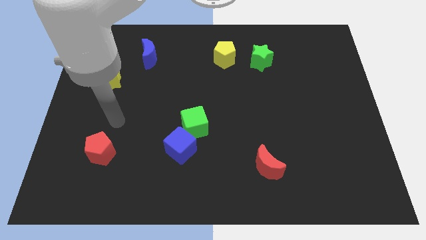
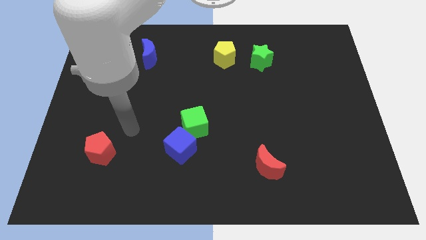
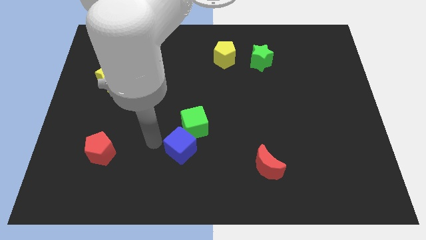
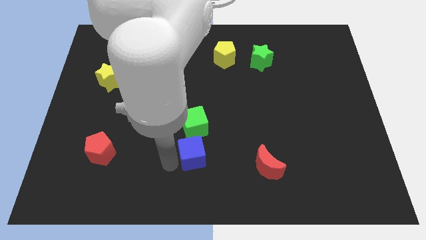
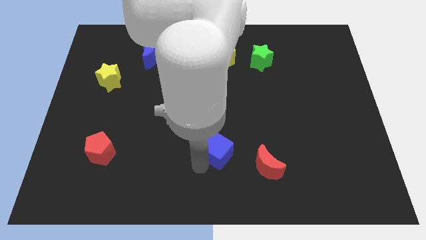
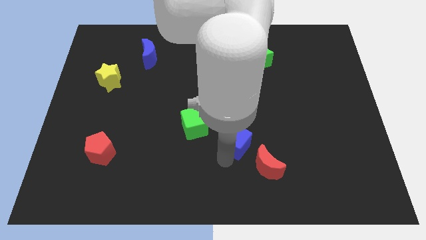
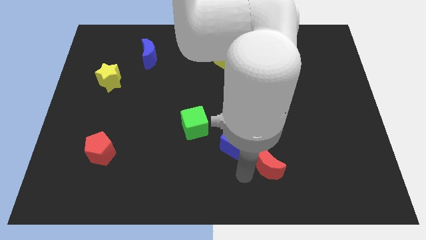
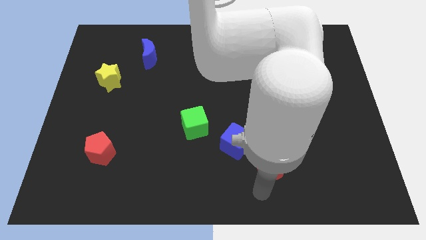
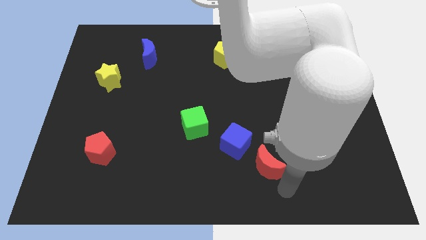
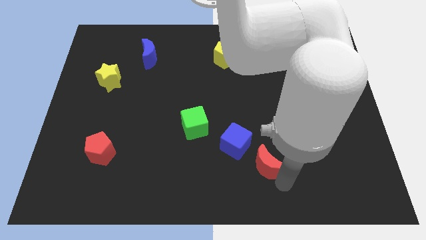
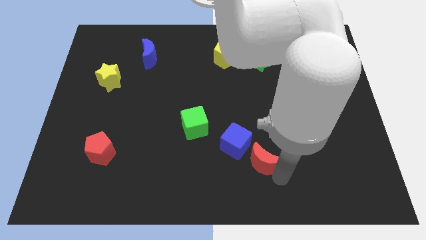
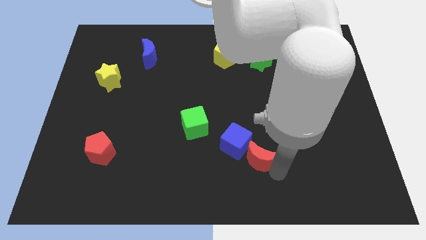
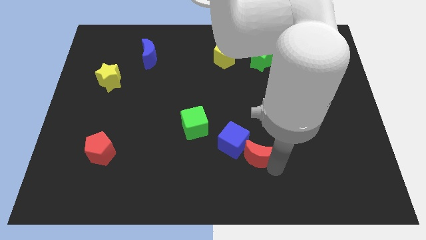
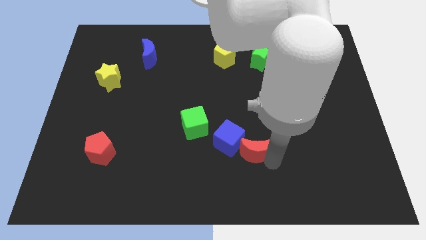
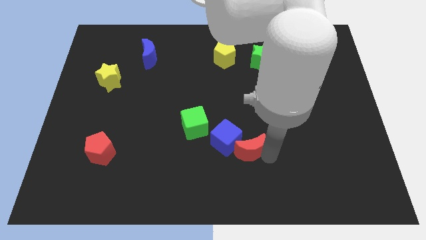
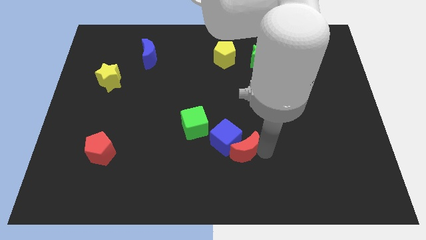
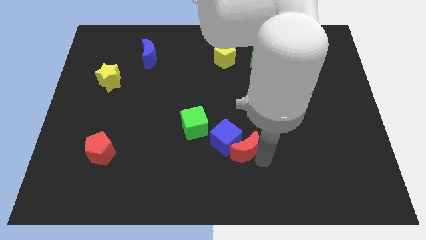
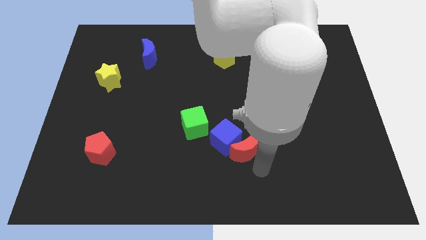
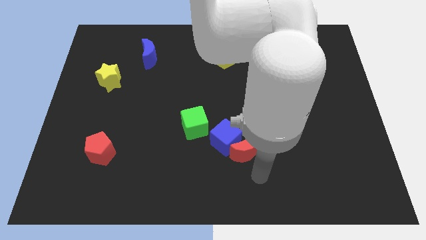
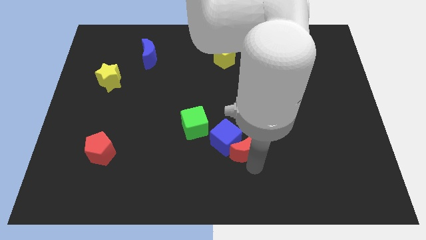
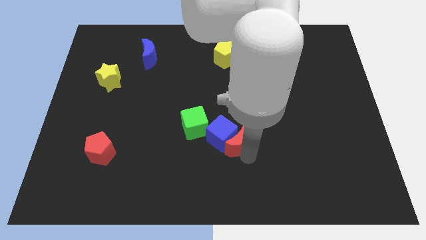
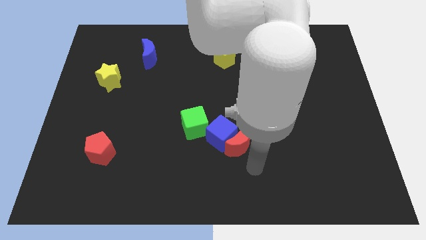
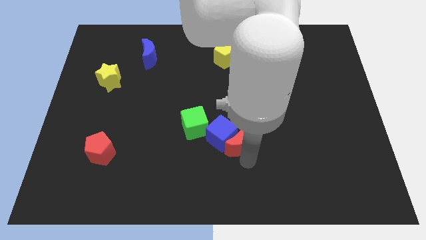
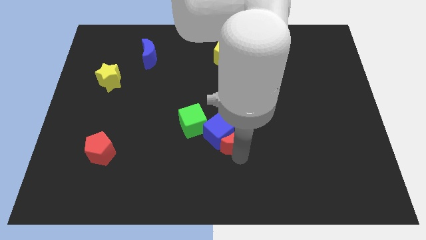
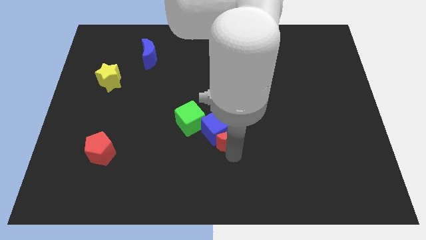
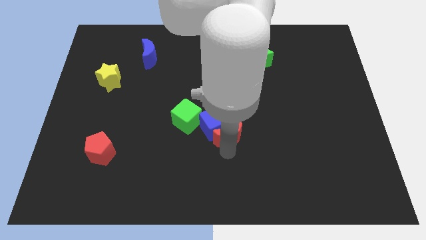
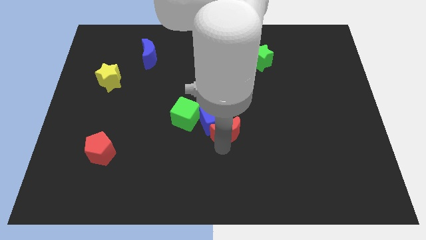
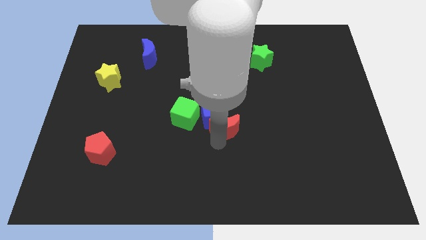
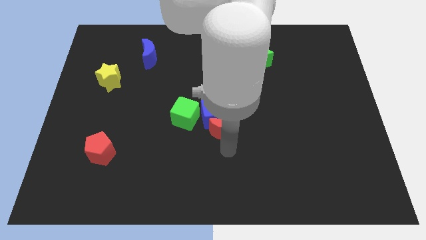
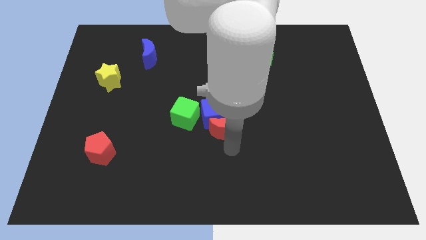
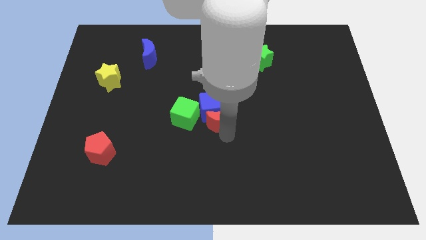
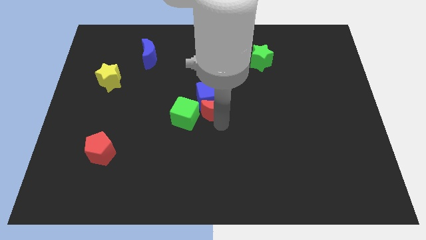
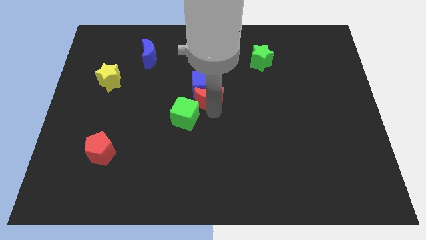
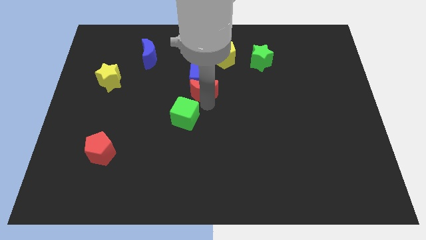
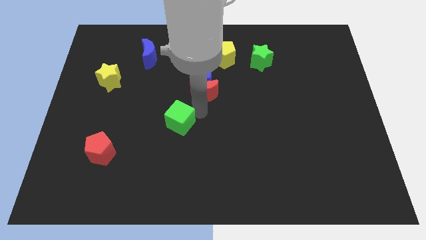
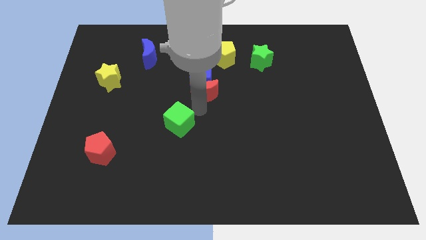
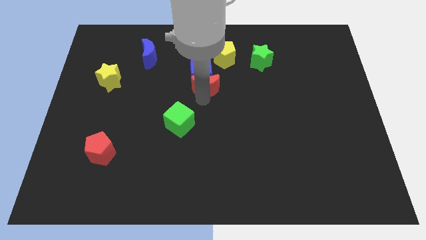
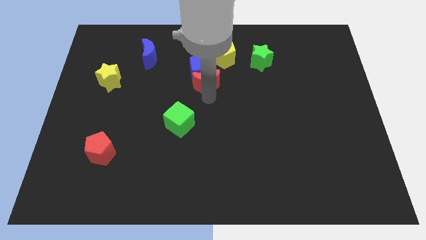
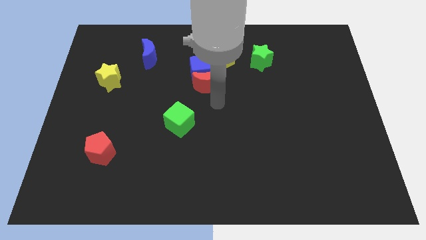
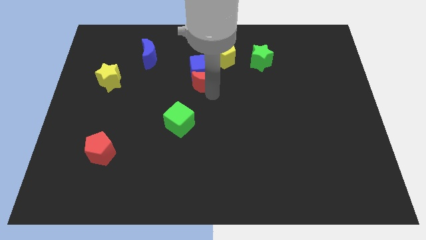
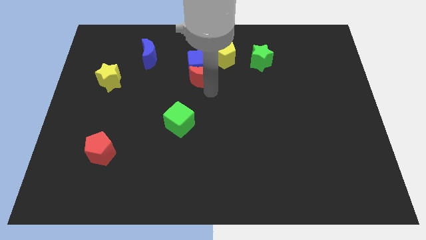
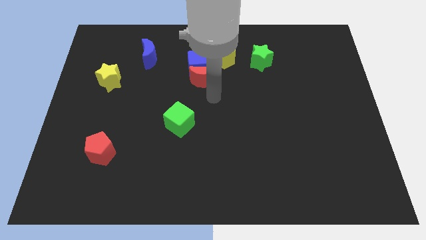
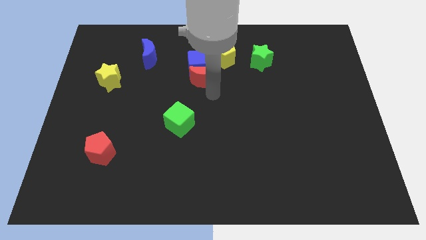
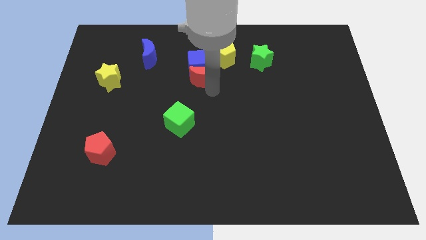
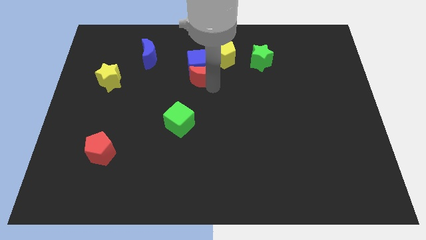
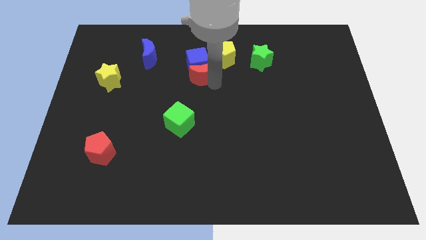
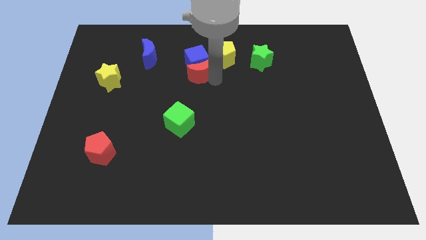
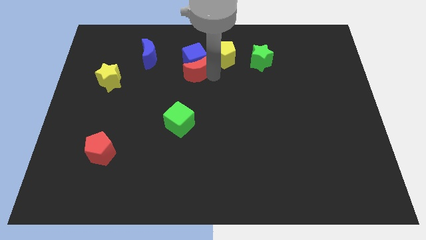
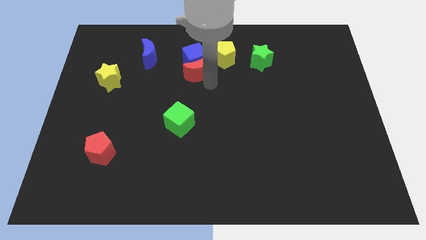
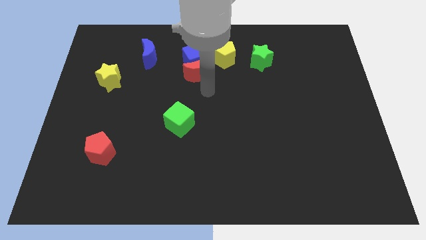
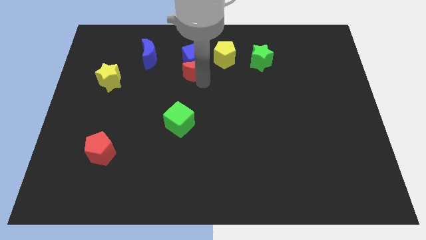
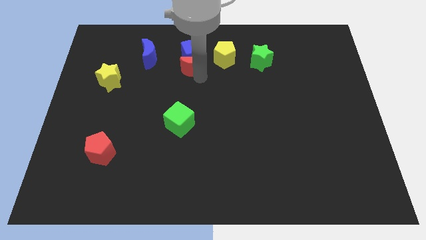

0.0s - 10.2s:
push the red moon to the right of the blue moon

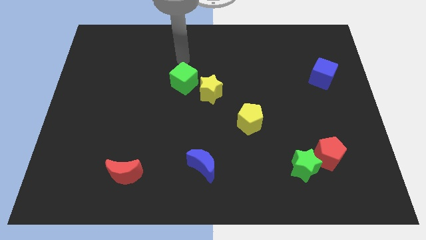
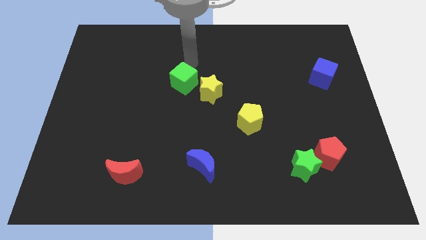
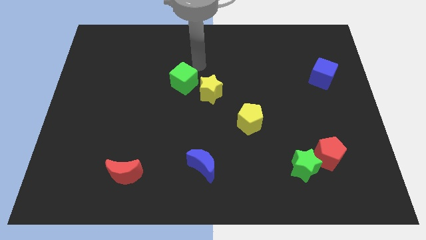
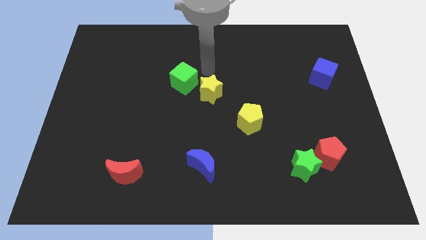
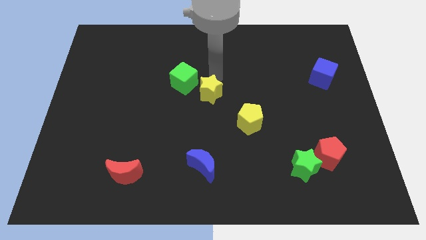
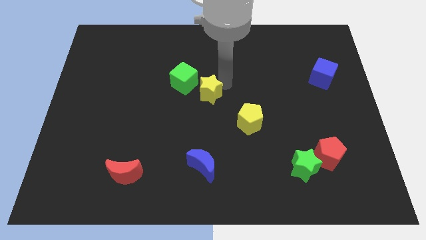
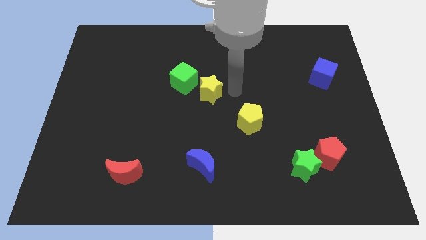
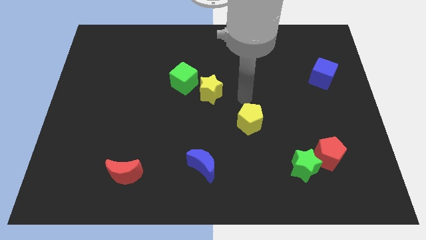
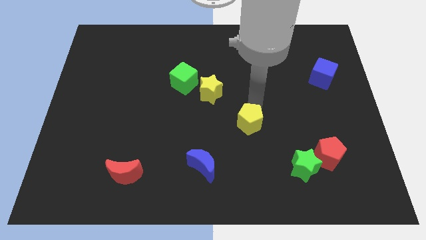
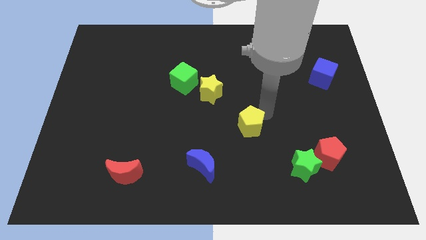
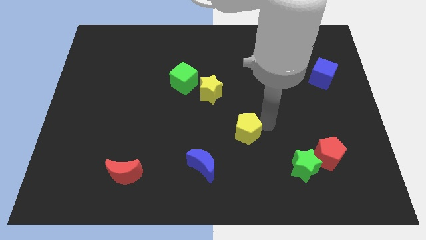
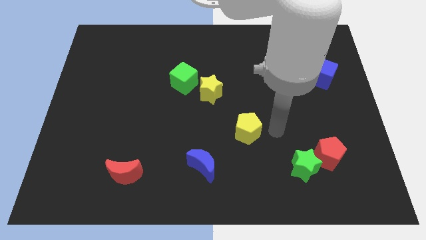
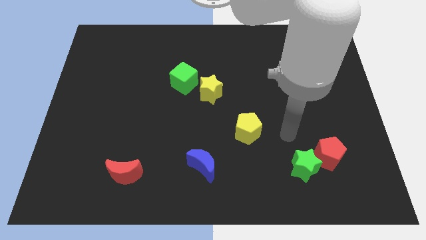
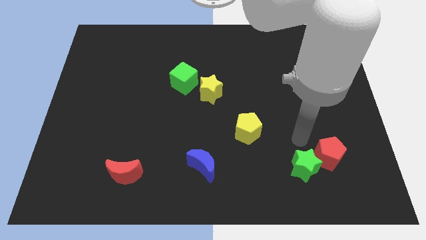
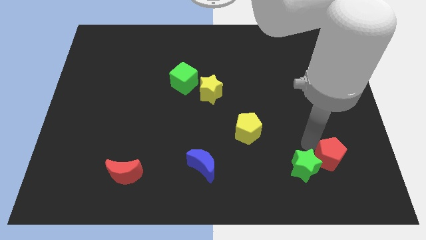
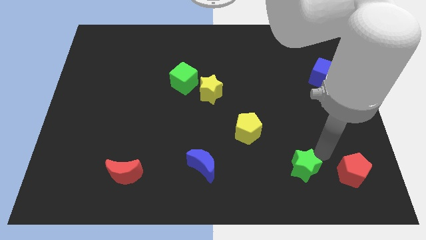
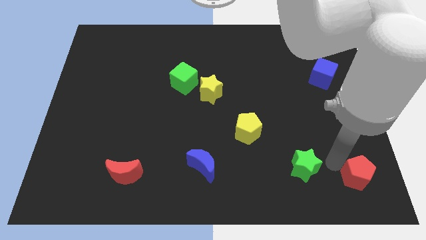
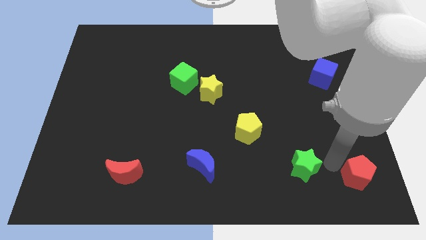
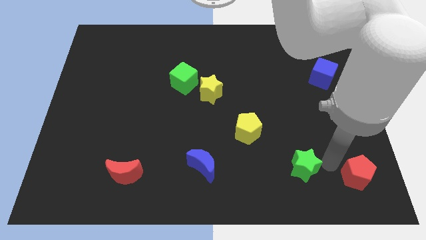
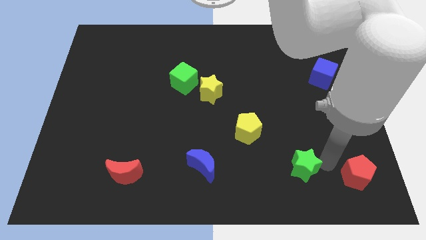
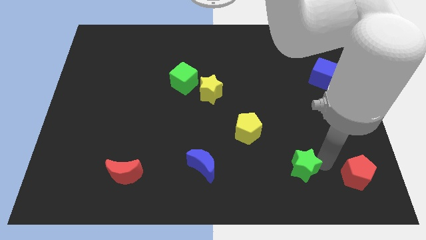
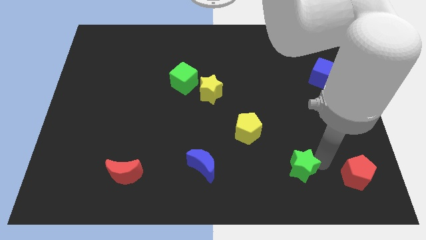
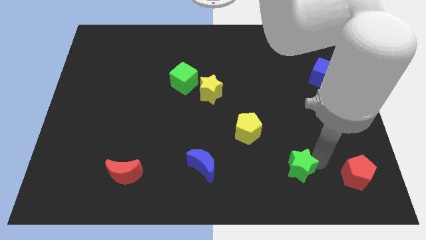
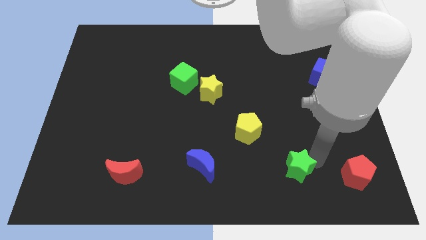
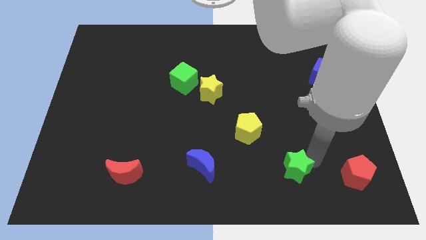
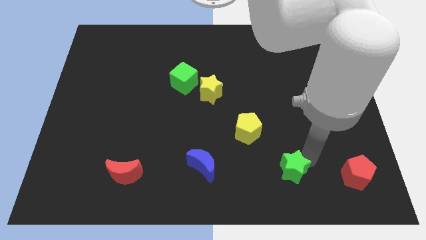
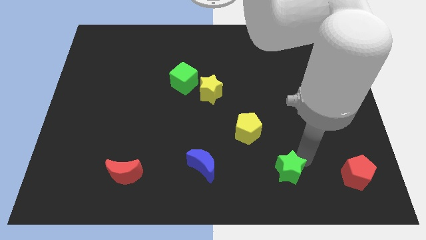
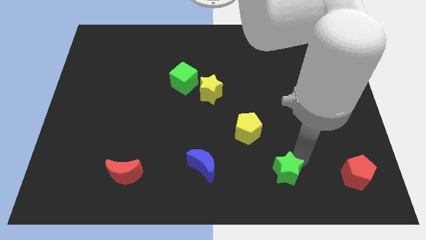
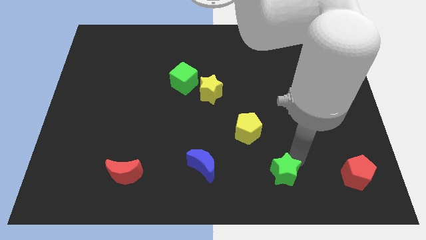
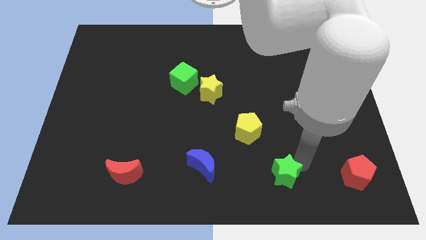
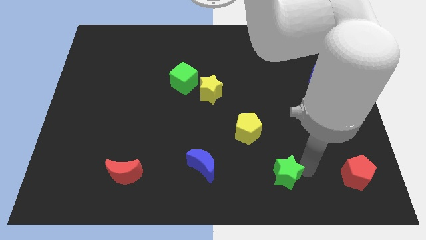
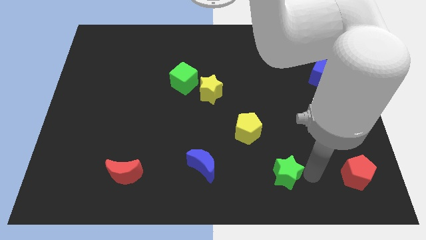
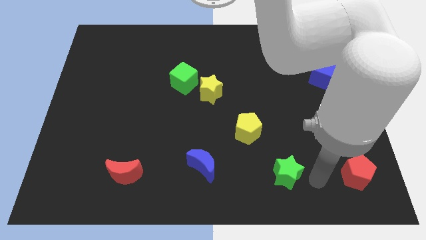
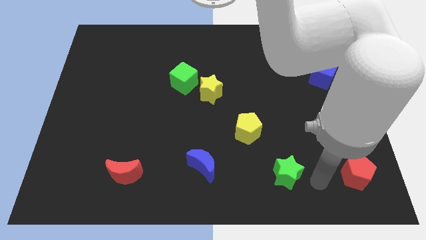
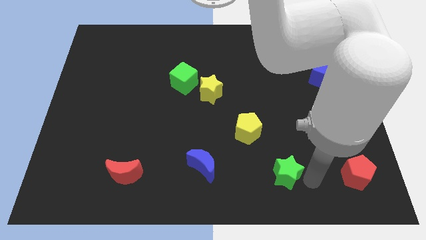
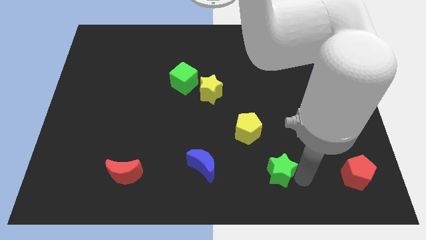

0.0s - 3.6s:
move the green star right of the blue moon
